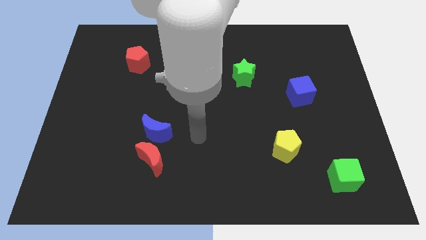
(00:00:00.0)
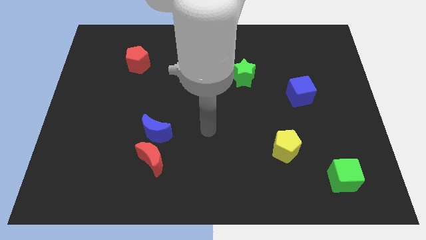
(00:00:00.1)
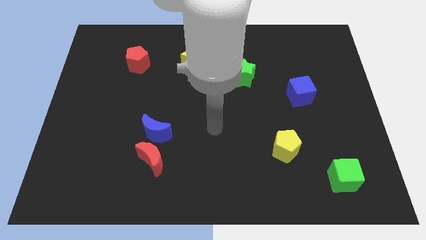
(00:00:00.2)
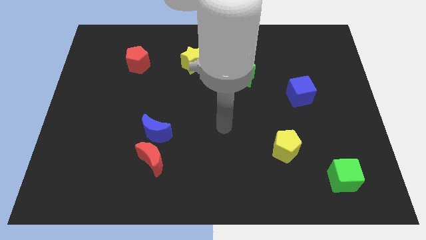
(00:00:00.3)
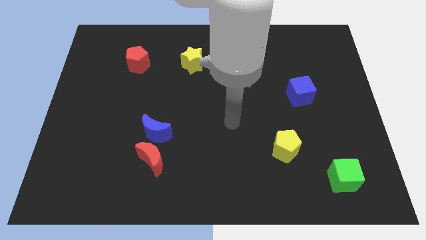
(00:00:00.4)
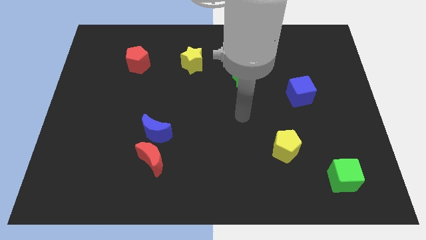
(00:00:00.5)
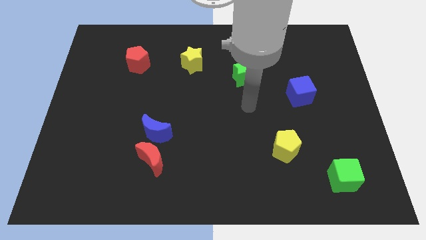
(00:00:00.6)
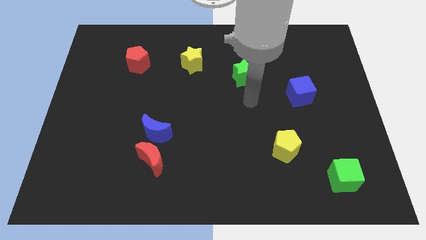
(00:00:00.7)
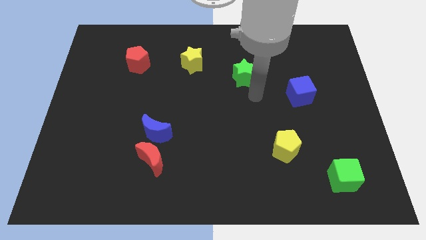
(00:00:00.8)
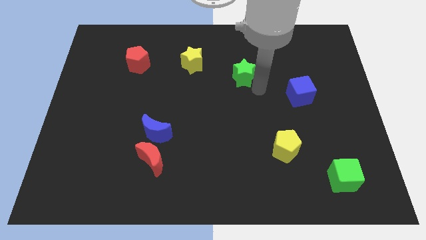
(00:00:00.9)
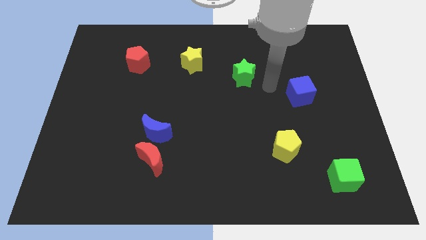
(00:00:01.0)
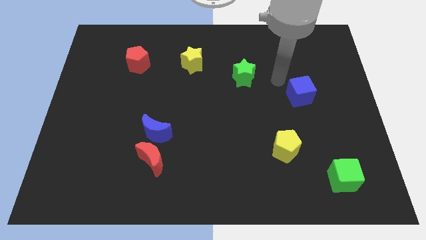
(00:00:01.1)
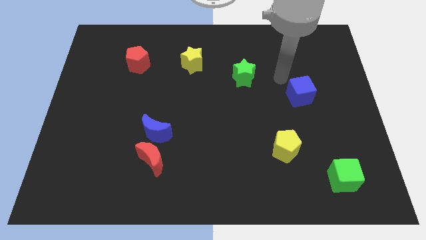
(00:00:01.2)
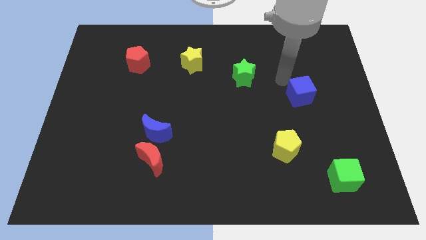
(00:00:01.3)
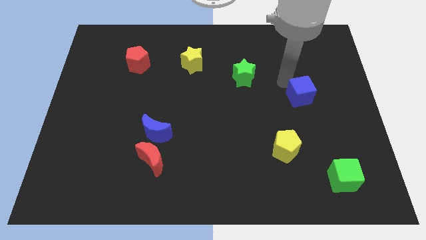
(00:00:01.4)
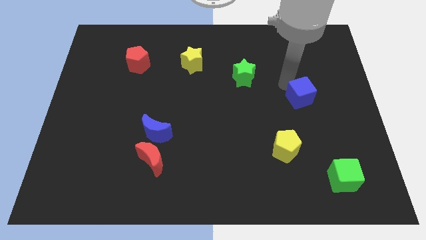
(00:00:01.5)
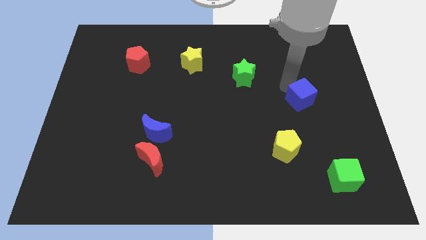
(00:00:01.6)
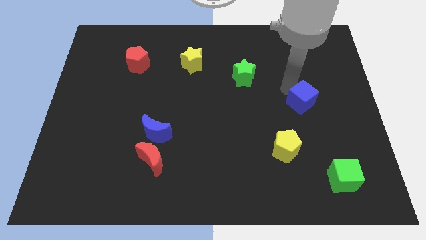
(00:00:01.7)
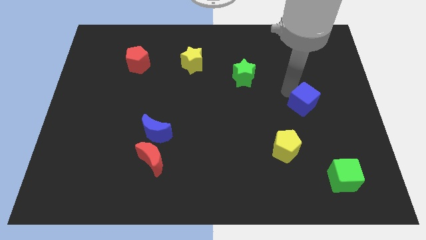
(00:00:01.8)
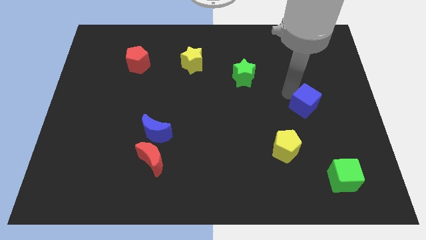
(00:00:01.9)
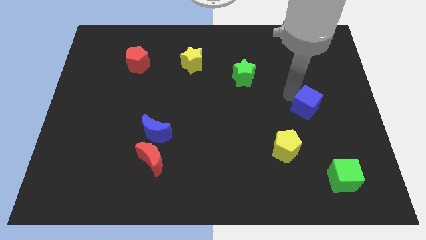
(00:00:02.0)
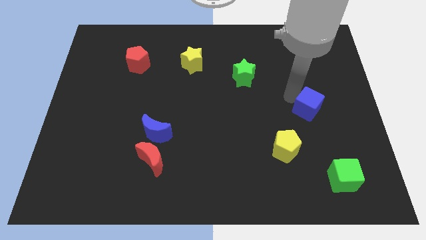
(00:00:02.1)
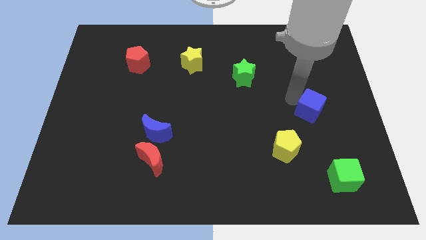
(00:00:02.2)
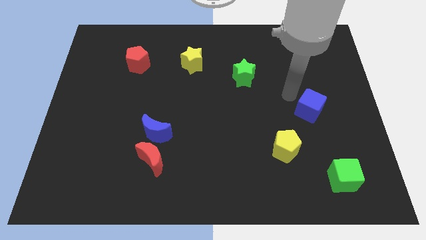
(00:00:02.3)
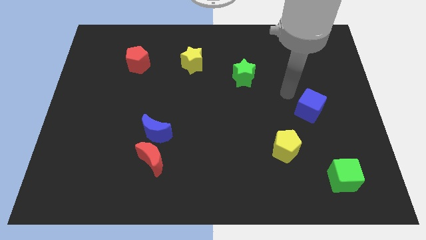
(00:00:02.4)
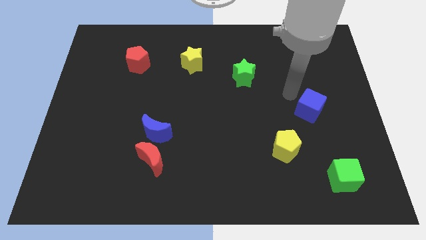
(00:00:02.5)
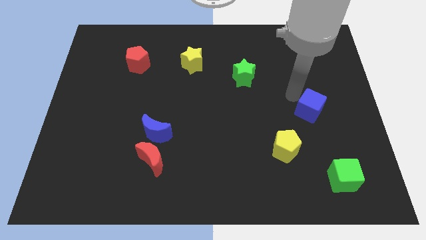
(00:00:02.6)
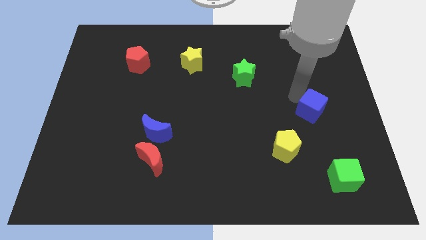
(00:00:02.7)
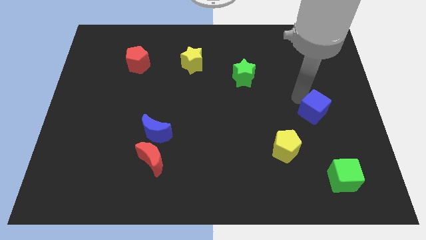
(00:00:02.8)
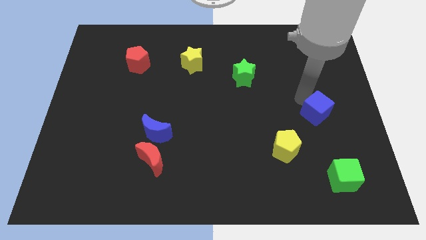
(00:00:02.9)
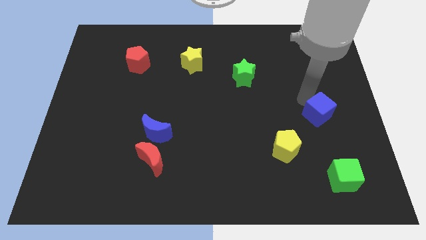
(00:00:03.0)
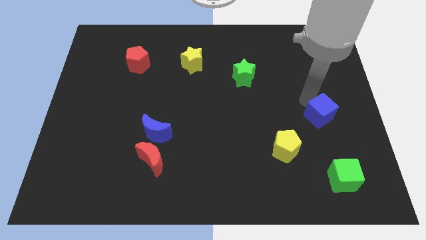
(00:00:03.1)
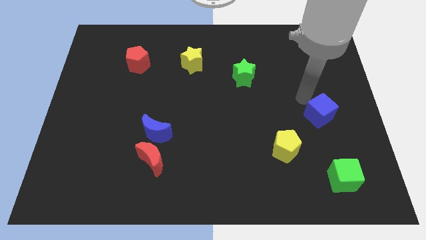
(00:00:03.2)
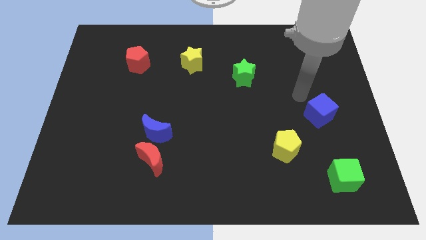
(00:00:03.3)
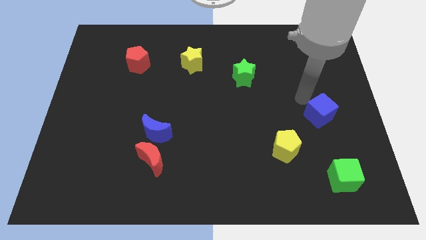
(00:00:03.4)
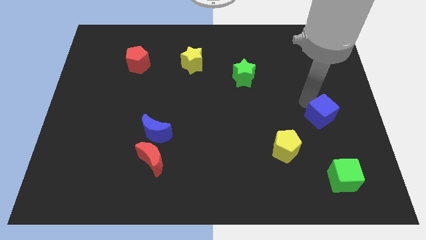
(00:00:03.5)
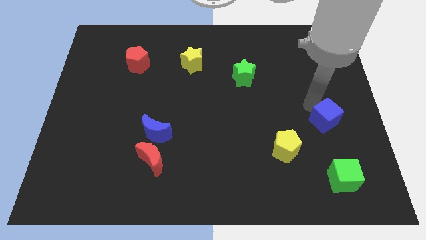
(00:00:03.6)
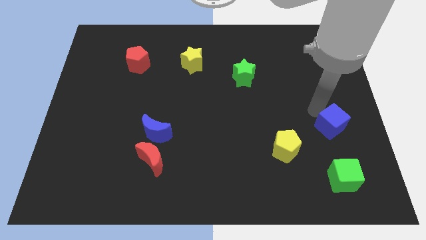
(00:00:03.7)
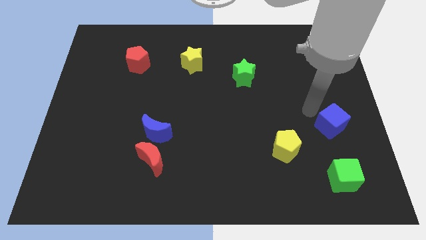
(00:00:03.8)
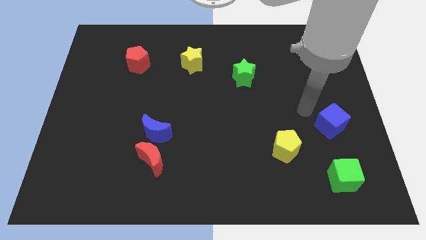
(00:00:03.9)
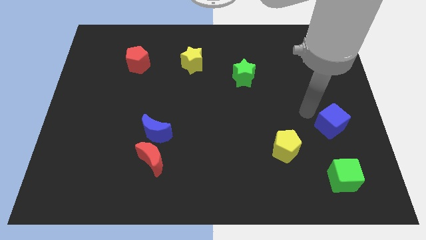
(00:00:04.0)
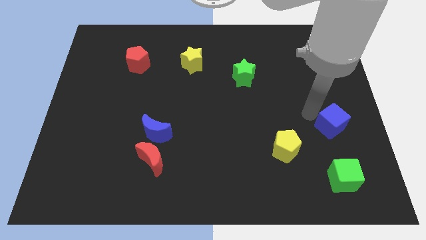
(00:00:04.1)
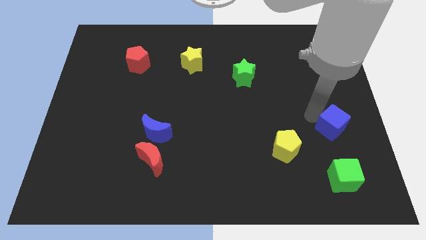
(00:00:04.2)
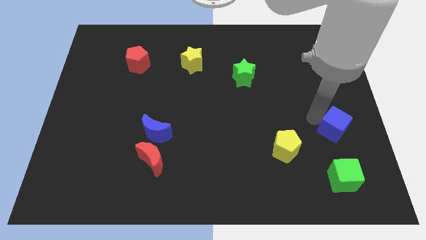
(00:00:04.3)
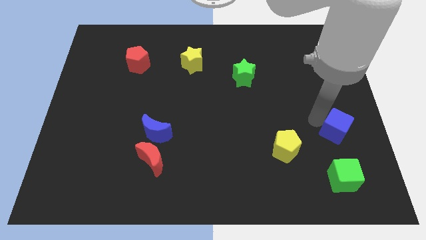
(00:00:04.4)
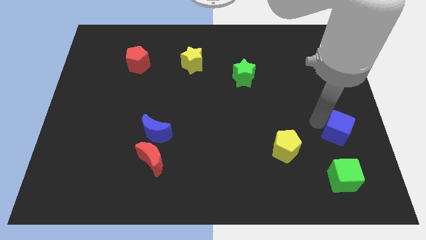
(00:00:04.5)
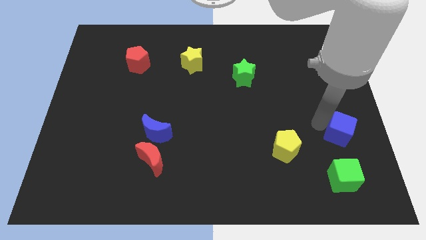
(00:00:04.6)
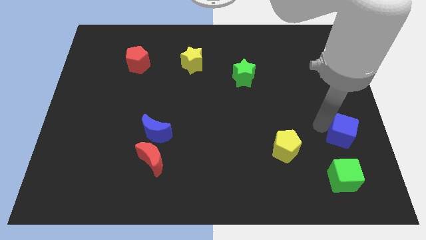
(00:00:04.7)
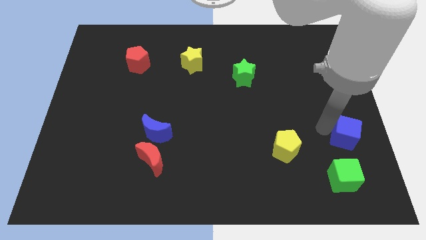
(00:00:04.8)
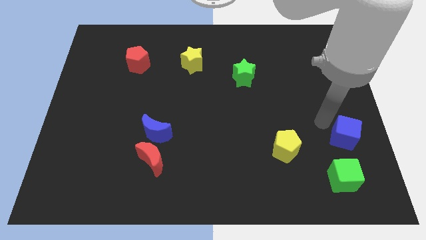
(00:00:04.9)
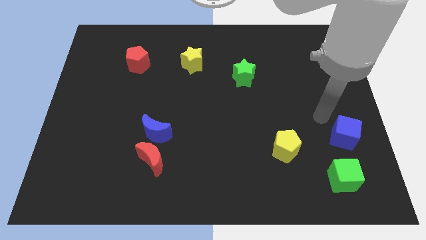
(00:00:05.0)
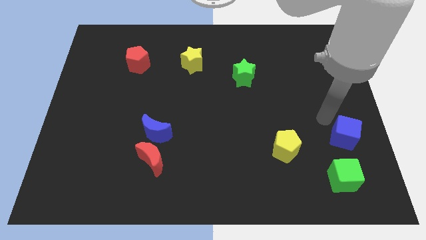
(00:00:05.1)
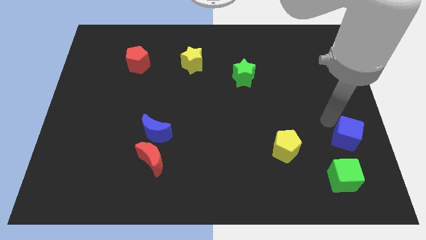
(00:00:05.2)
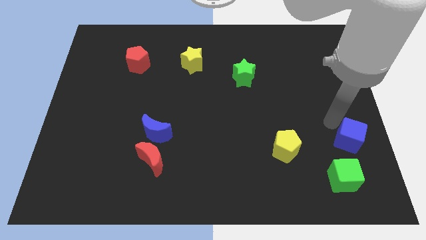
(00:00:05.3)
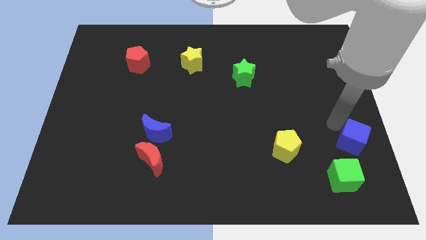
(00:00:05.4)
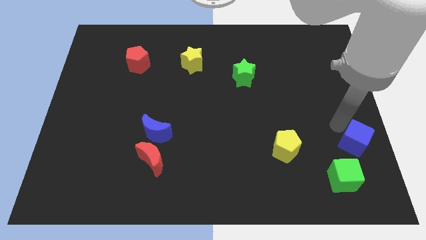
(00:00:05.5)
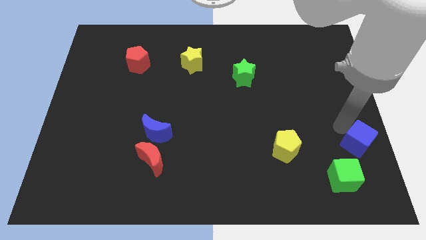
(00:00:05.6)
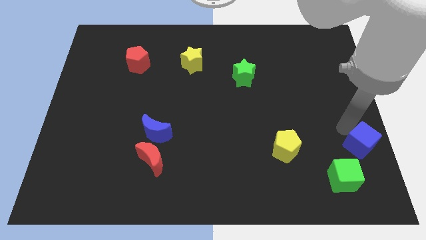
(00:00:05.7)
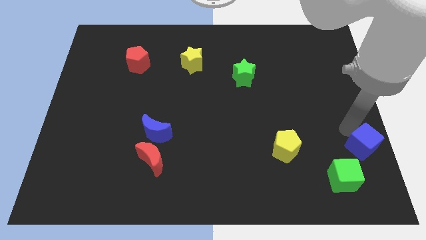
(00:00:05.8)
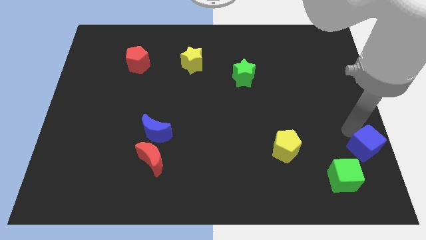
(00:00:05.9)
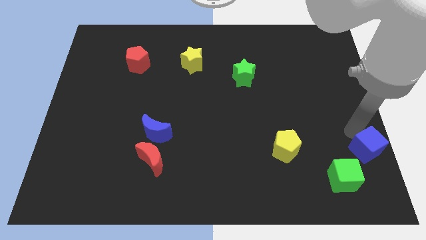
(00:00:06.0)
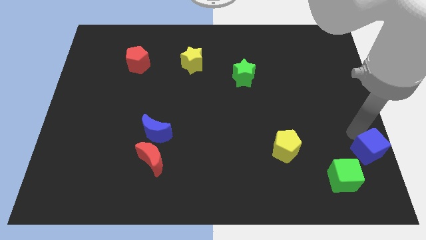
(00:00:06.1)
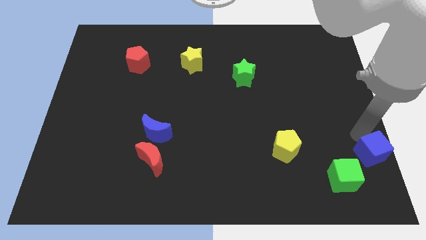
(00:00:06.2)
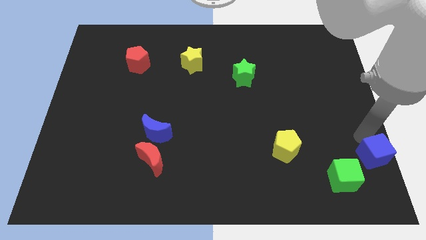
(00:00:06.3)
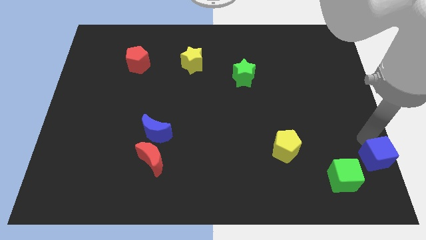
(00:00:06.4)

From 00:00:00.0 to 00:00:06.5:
move the blue cube to the bottom right of the board

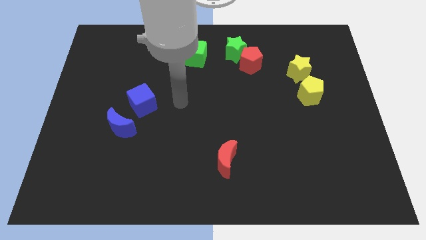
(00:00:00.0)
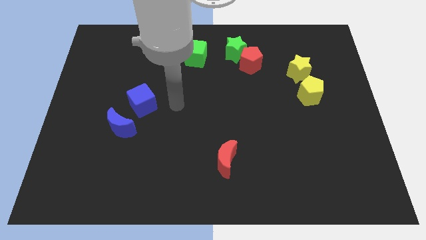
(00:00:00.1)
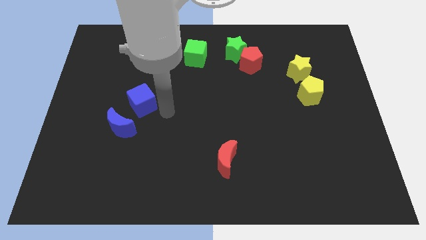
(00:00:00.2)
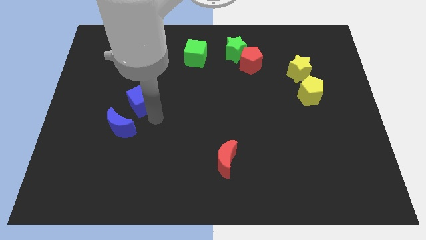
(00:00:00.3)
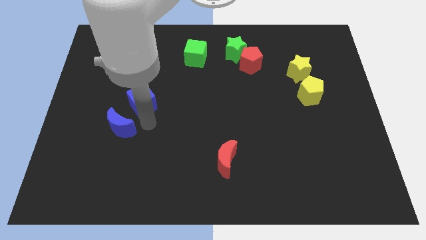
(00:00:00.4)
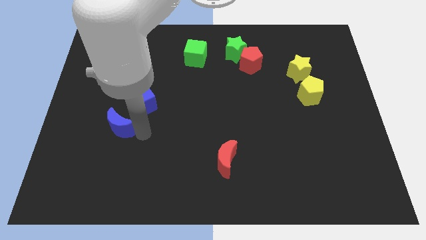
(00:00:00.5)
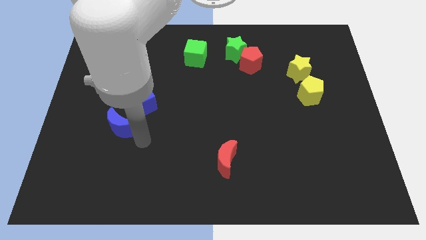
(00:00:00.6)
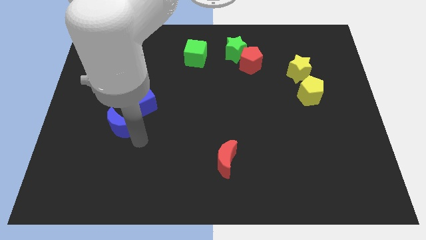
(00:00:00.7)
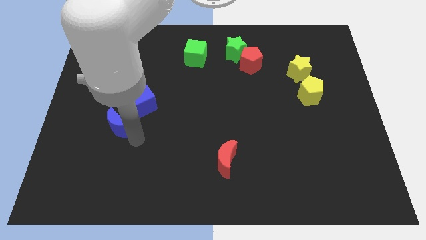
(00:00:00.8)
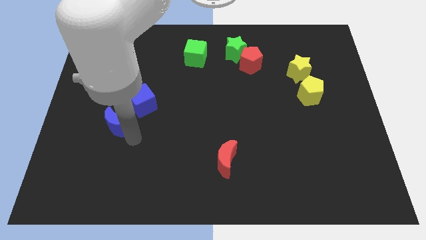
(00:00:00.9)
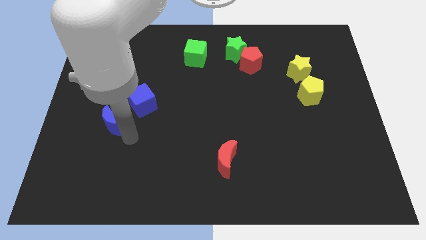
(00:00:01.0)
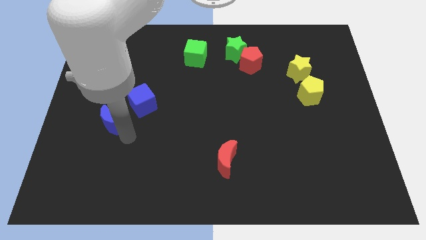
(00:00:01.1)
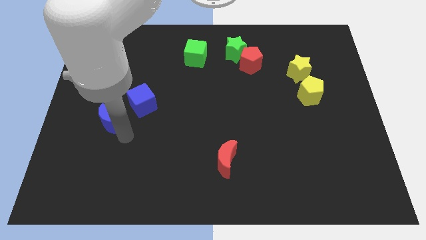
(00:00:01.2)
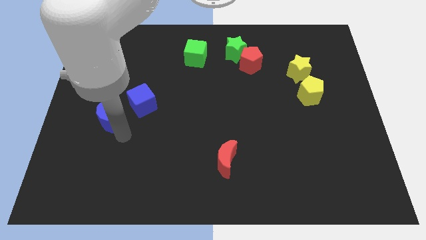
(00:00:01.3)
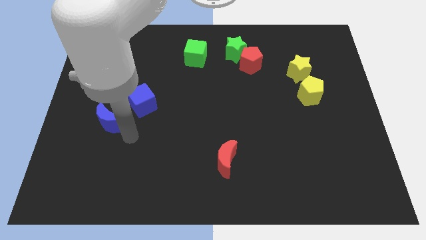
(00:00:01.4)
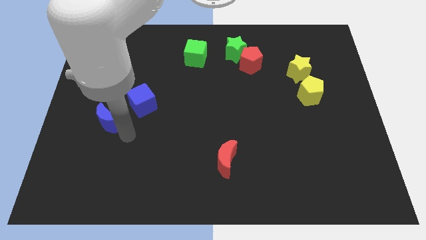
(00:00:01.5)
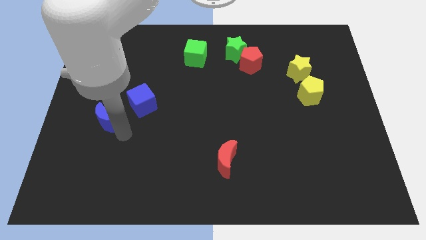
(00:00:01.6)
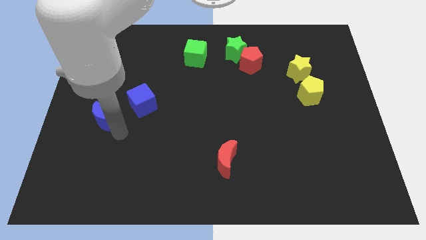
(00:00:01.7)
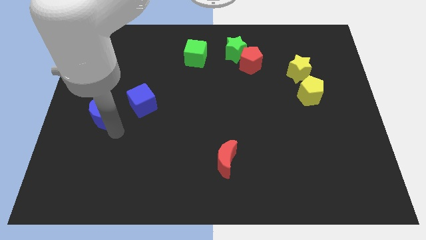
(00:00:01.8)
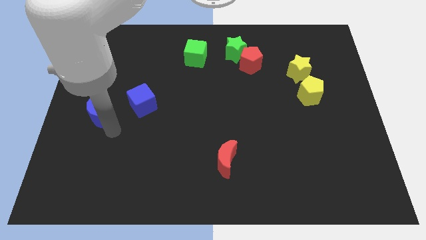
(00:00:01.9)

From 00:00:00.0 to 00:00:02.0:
move the blue moon to the left side
